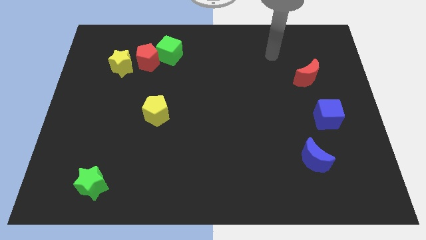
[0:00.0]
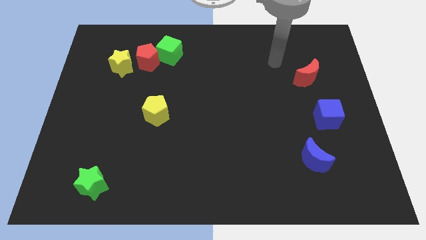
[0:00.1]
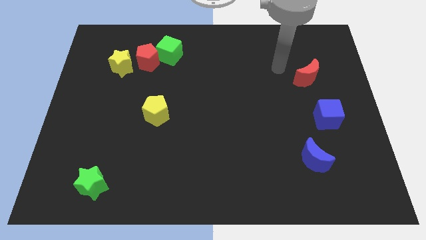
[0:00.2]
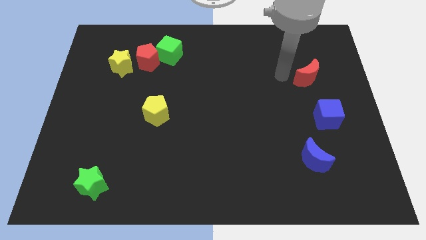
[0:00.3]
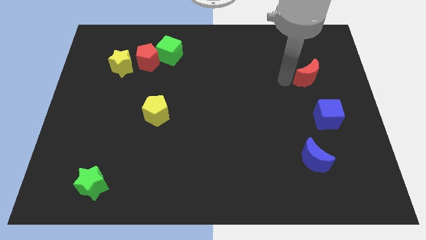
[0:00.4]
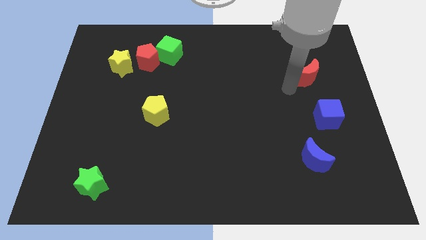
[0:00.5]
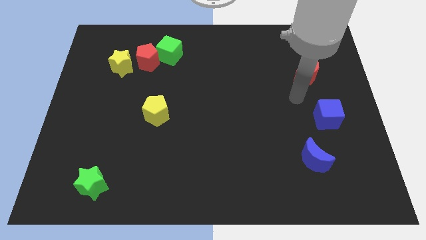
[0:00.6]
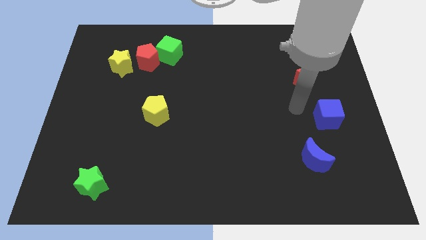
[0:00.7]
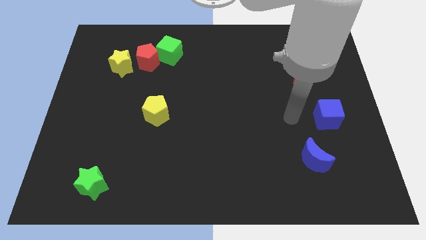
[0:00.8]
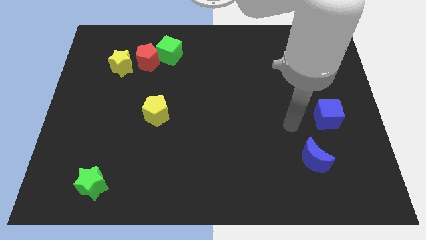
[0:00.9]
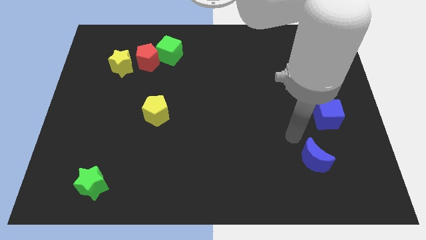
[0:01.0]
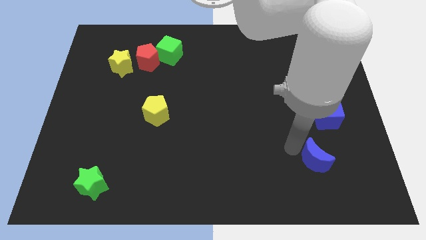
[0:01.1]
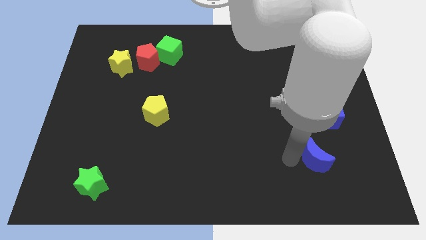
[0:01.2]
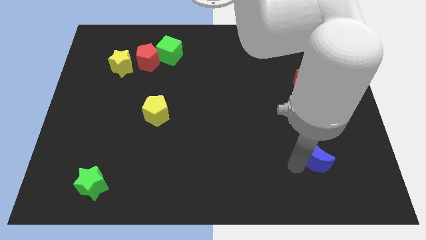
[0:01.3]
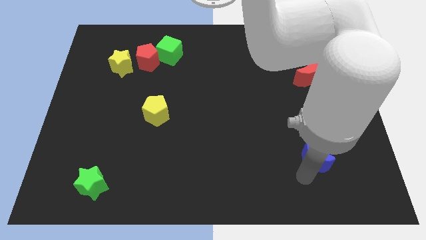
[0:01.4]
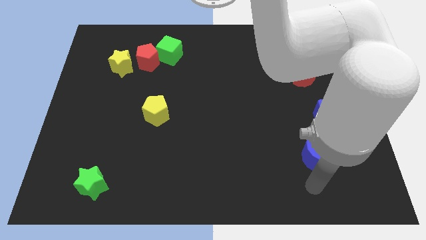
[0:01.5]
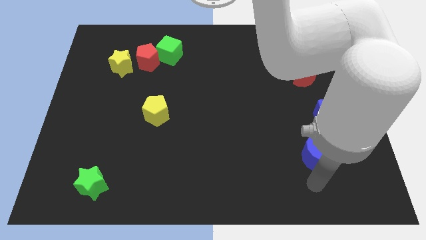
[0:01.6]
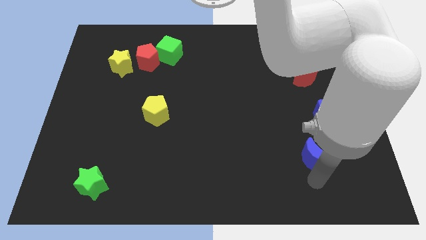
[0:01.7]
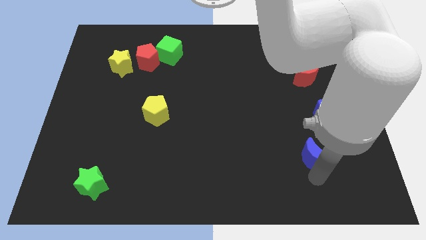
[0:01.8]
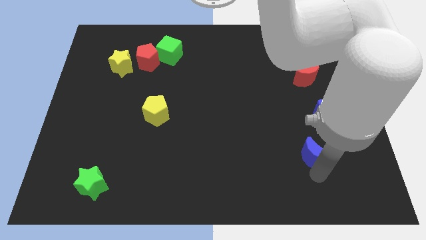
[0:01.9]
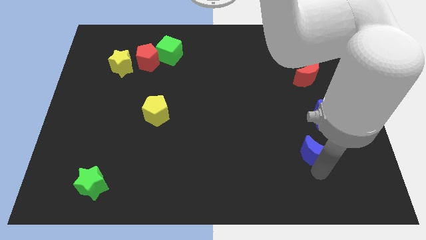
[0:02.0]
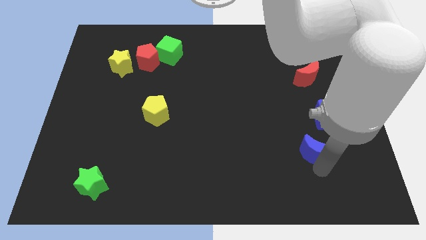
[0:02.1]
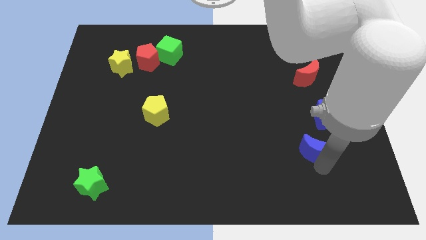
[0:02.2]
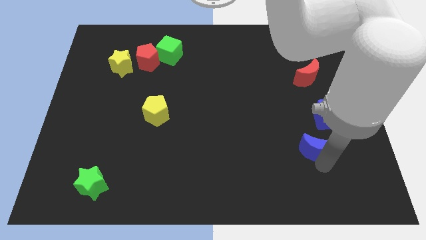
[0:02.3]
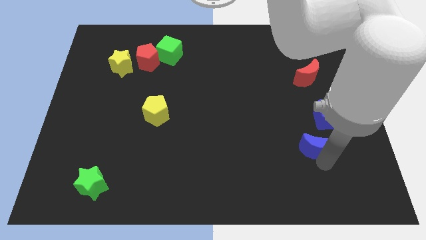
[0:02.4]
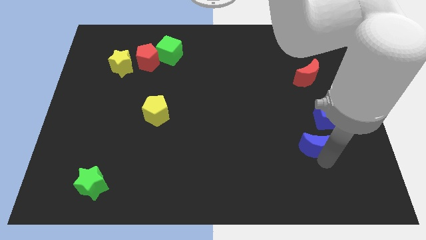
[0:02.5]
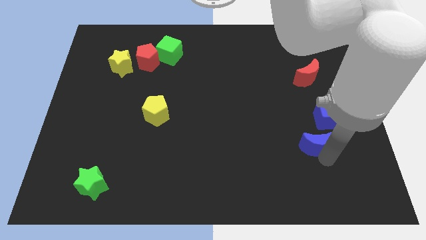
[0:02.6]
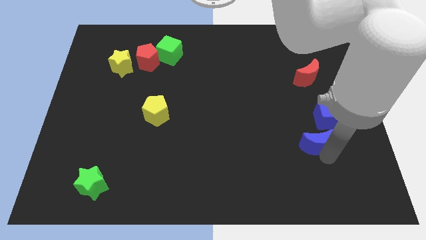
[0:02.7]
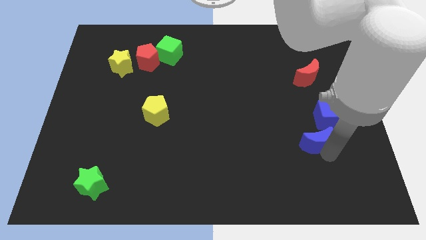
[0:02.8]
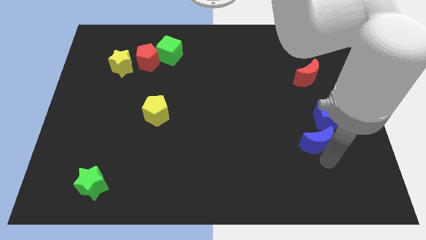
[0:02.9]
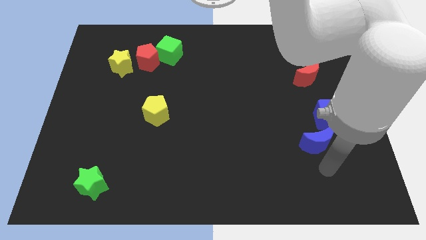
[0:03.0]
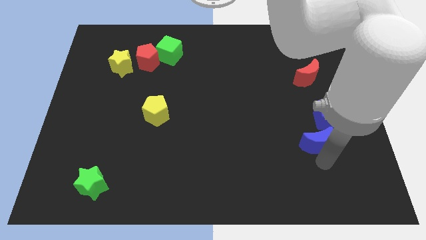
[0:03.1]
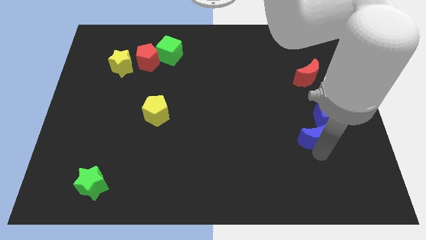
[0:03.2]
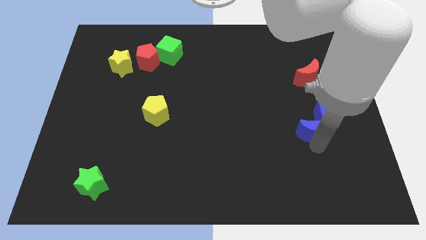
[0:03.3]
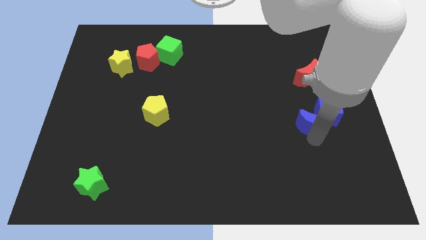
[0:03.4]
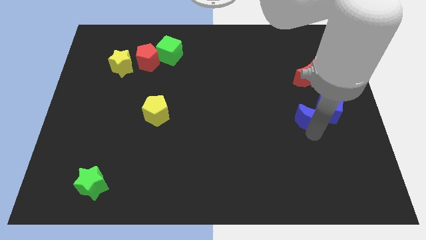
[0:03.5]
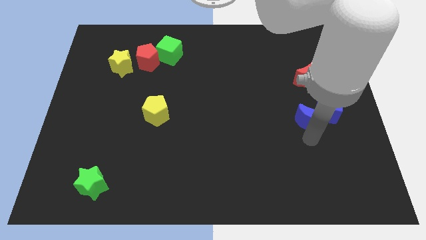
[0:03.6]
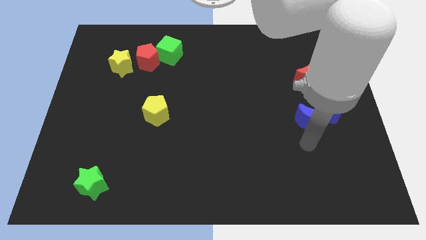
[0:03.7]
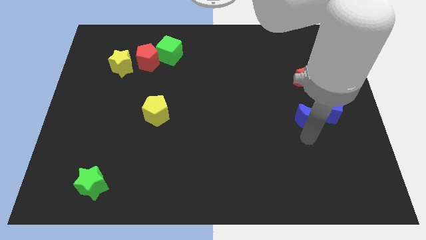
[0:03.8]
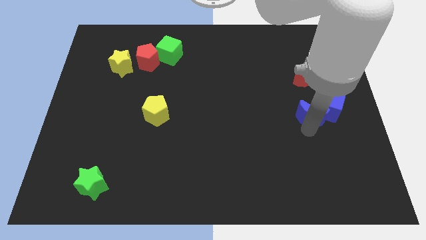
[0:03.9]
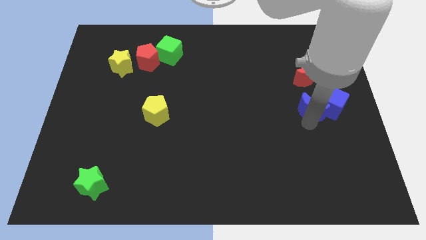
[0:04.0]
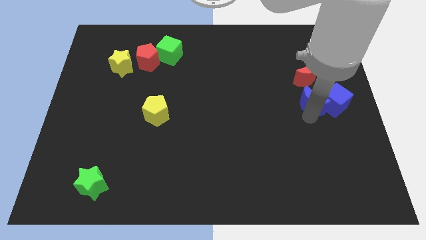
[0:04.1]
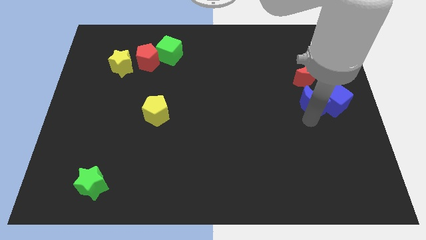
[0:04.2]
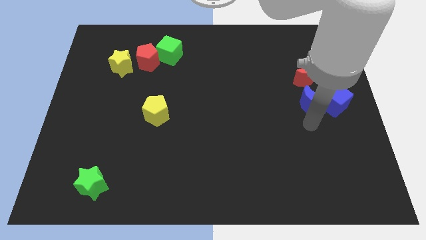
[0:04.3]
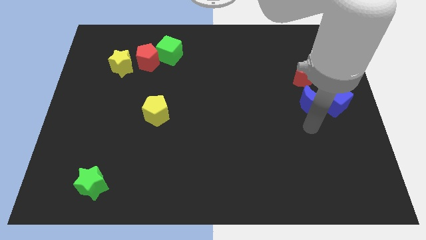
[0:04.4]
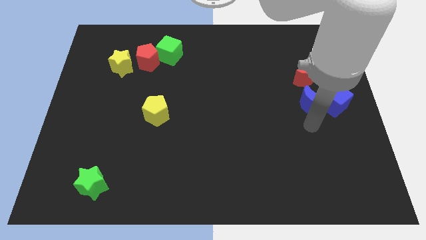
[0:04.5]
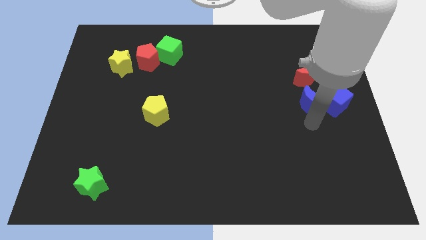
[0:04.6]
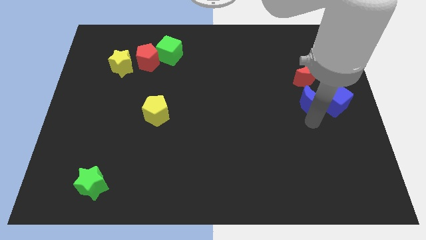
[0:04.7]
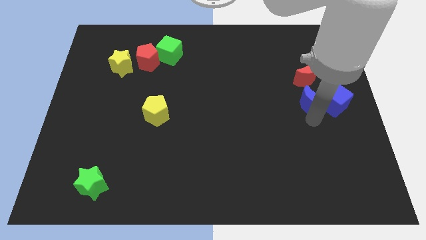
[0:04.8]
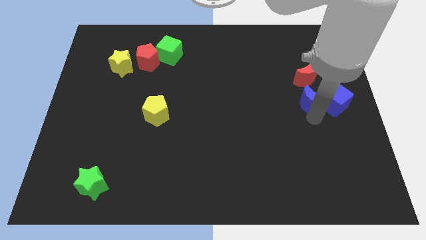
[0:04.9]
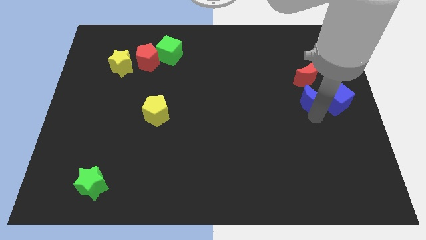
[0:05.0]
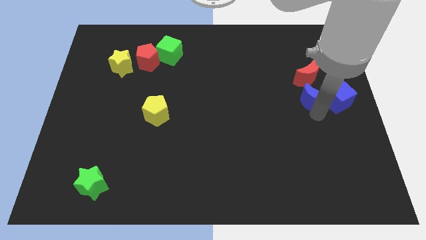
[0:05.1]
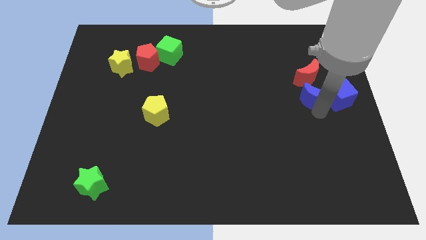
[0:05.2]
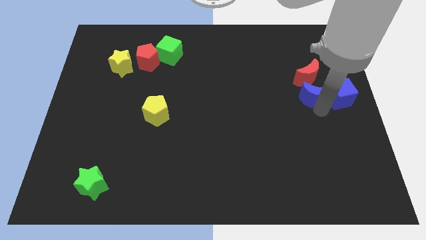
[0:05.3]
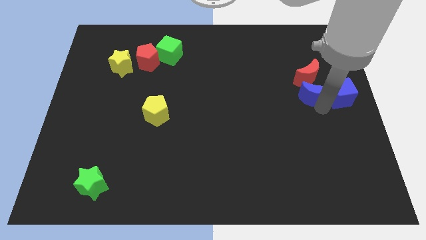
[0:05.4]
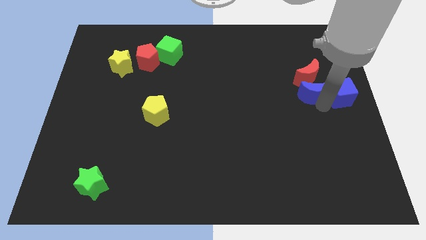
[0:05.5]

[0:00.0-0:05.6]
put the blue moon close to the red moon

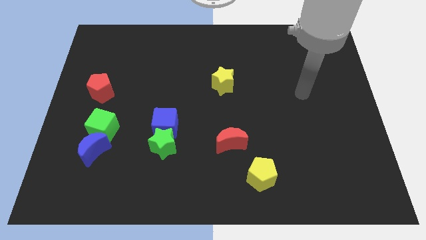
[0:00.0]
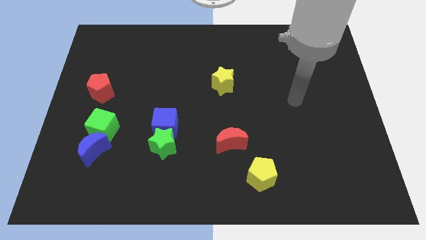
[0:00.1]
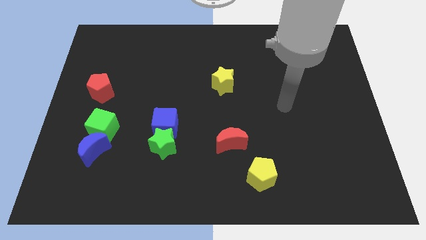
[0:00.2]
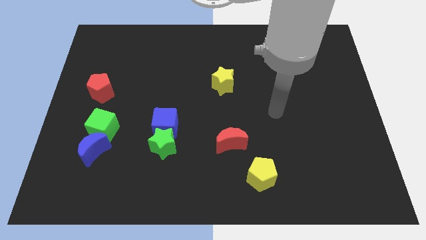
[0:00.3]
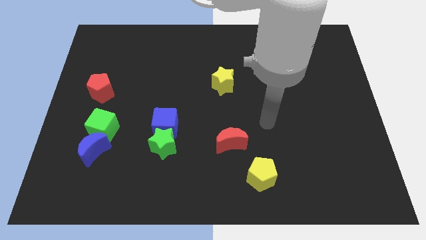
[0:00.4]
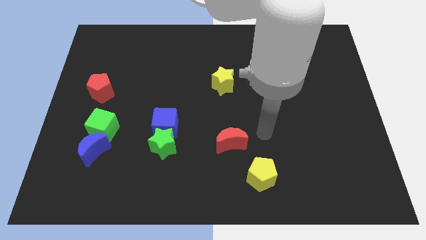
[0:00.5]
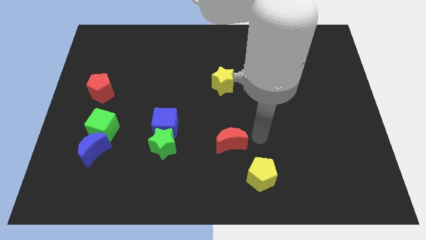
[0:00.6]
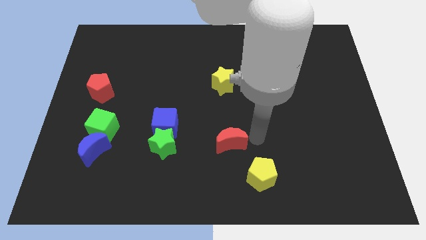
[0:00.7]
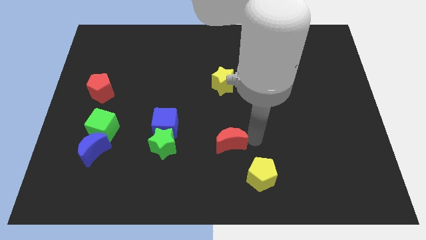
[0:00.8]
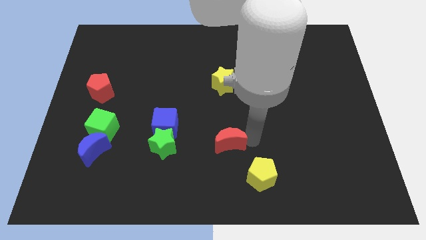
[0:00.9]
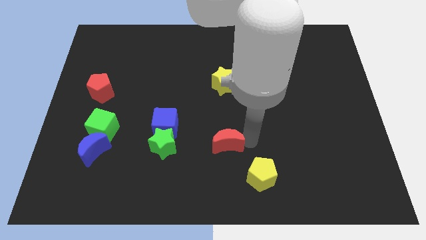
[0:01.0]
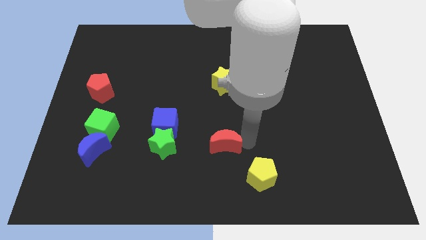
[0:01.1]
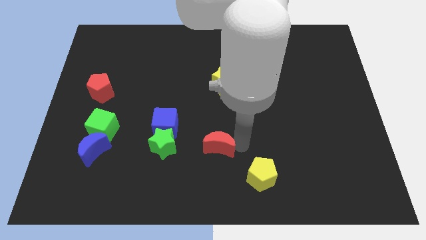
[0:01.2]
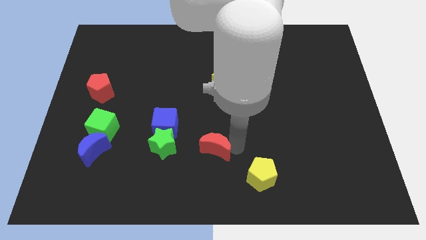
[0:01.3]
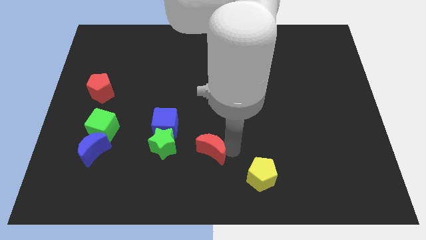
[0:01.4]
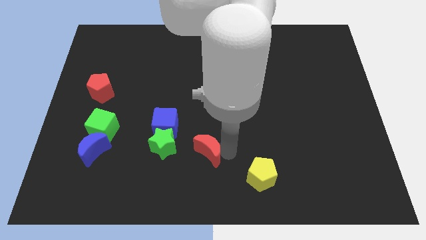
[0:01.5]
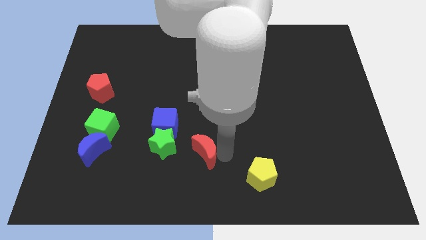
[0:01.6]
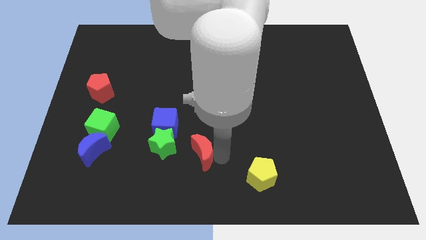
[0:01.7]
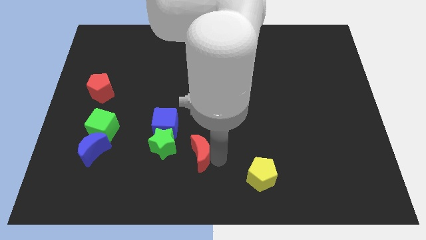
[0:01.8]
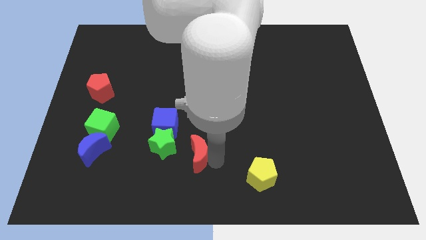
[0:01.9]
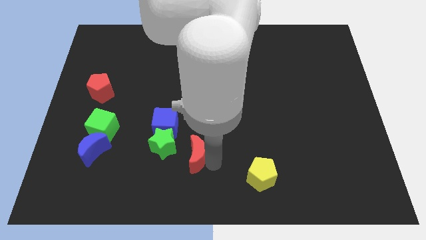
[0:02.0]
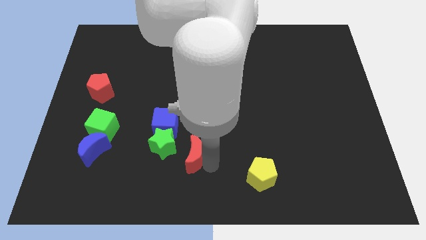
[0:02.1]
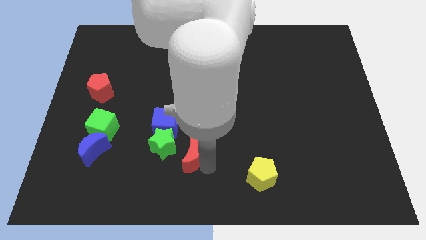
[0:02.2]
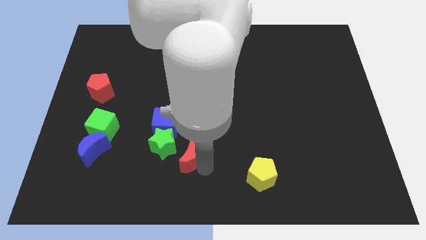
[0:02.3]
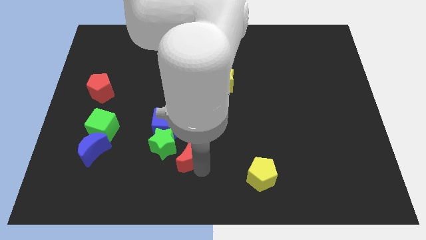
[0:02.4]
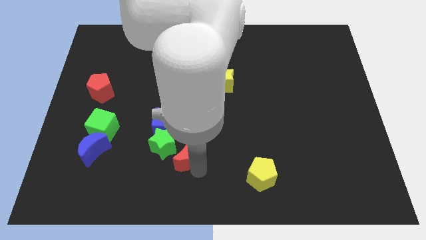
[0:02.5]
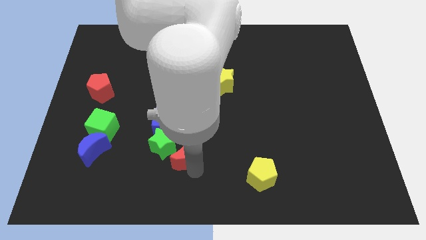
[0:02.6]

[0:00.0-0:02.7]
move the red moon to the green star
